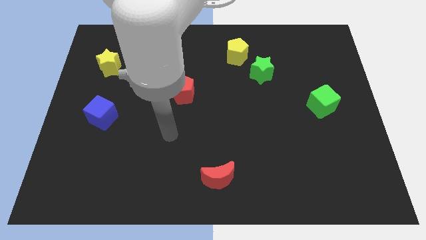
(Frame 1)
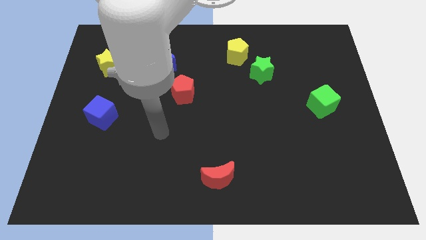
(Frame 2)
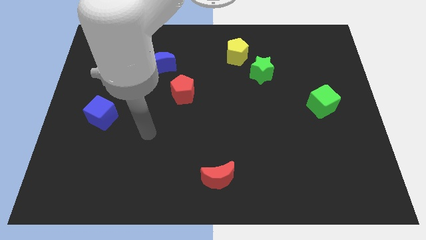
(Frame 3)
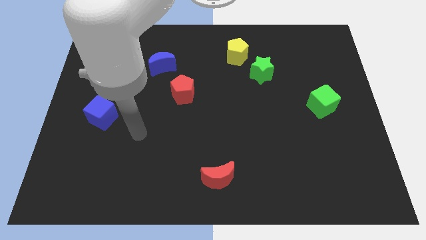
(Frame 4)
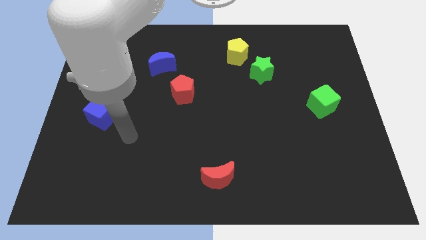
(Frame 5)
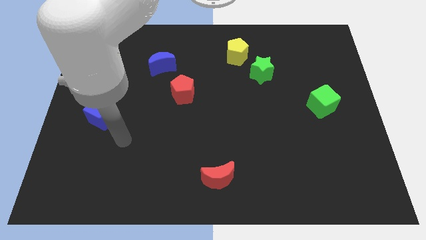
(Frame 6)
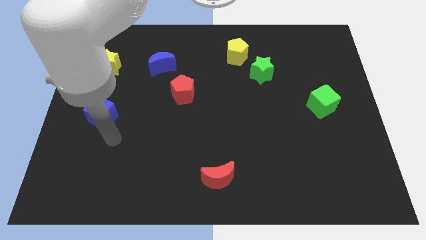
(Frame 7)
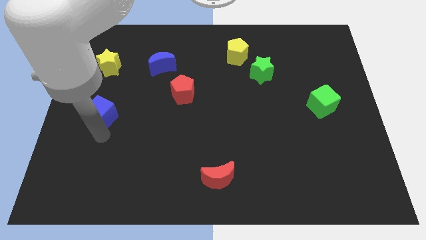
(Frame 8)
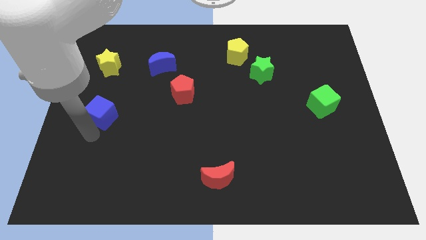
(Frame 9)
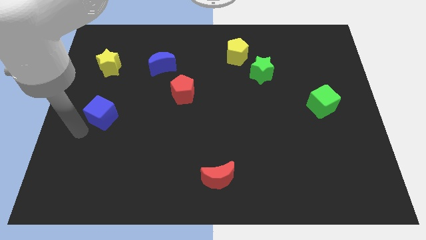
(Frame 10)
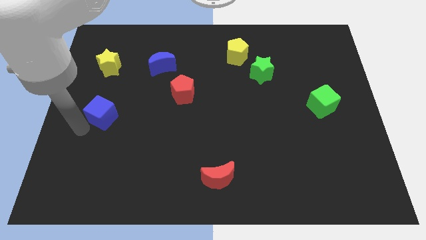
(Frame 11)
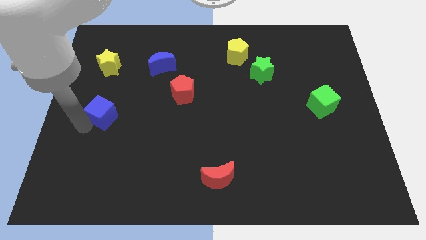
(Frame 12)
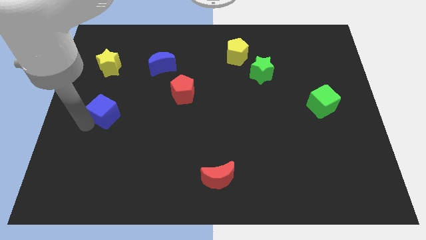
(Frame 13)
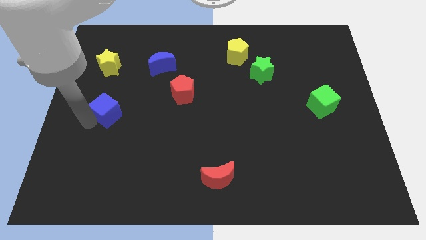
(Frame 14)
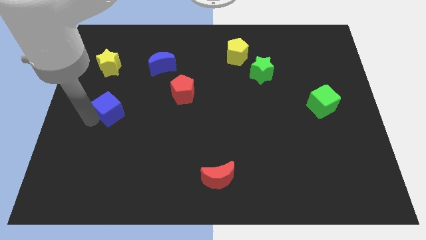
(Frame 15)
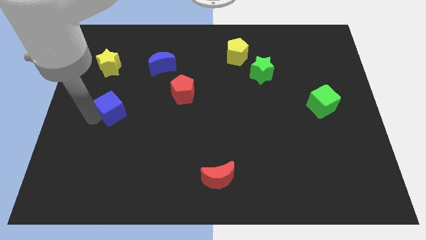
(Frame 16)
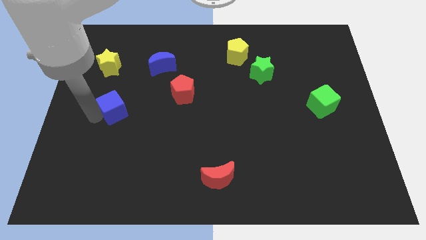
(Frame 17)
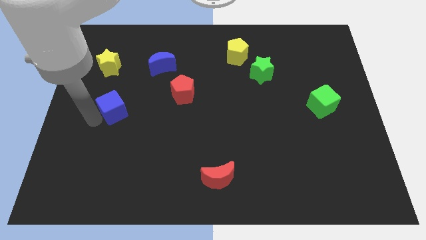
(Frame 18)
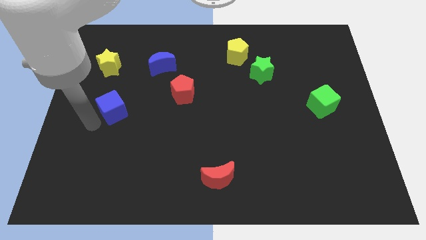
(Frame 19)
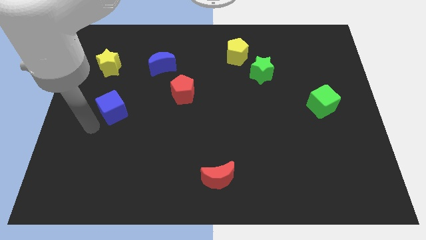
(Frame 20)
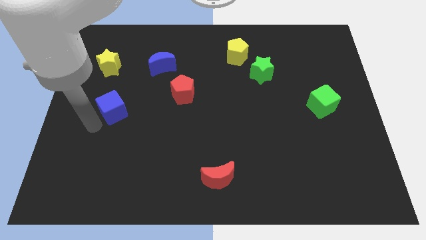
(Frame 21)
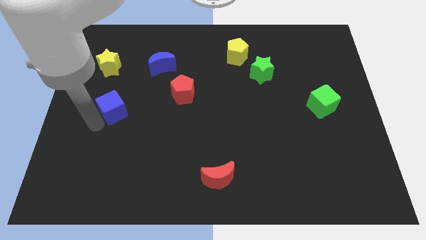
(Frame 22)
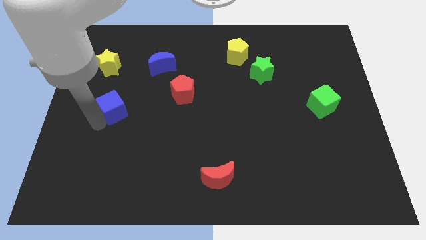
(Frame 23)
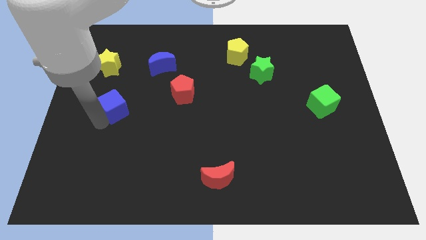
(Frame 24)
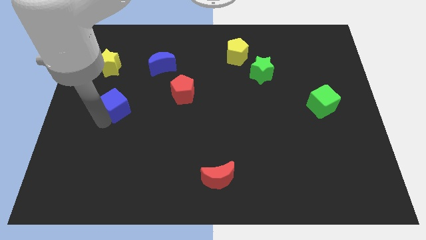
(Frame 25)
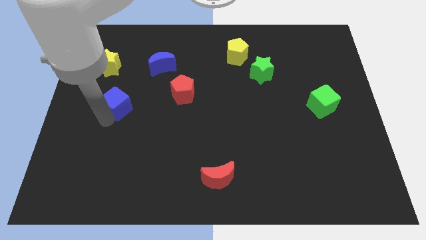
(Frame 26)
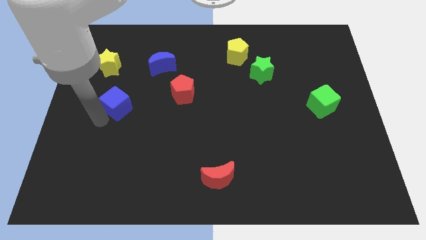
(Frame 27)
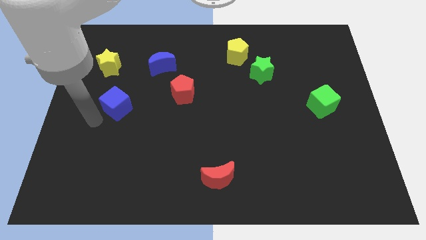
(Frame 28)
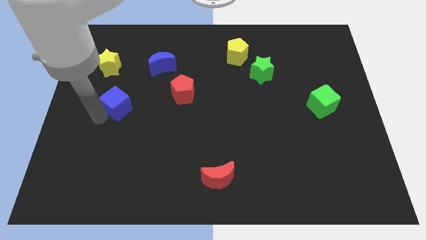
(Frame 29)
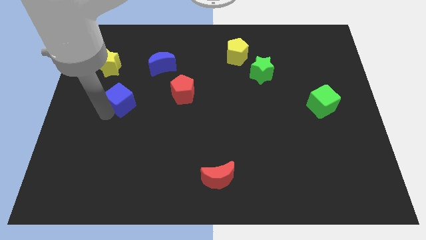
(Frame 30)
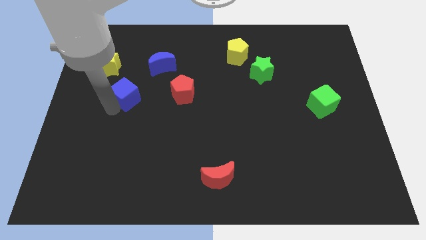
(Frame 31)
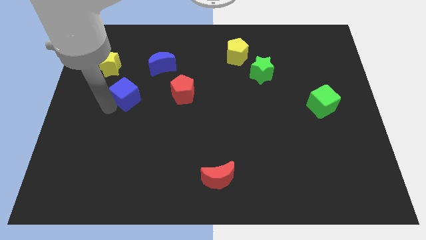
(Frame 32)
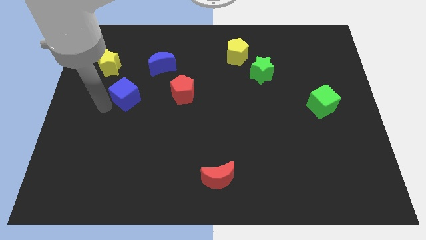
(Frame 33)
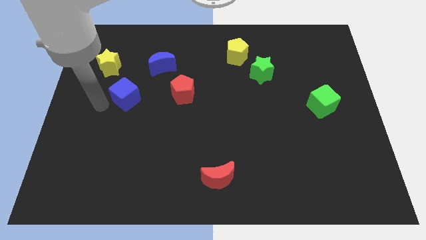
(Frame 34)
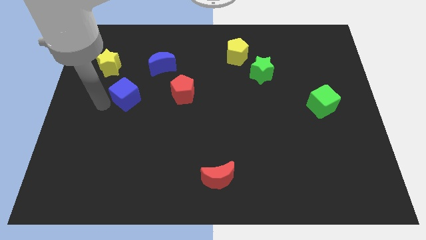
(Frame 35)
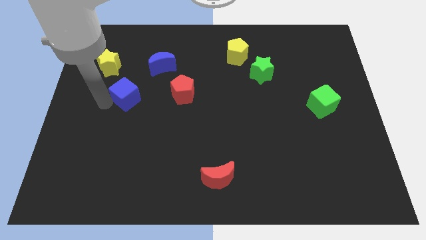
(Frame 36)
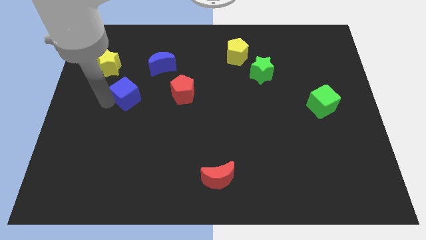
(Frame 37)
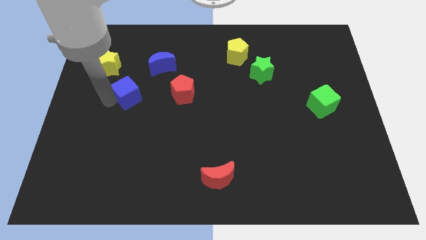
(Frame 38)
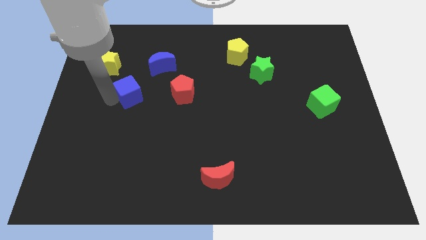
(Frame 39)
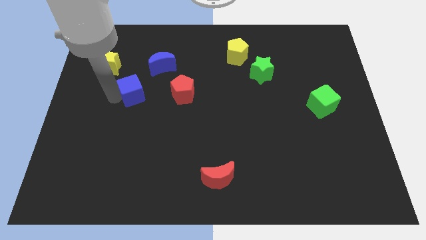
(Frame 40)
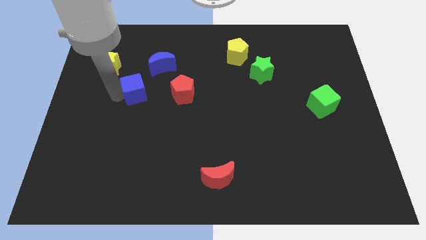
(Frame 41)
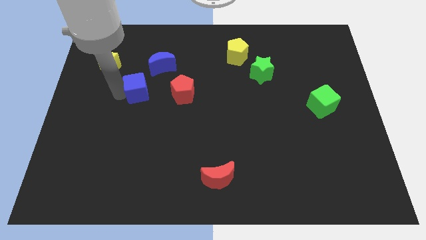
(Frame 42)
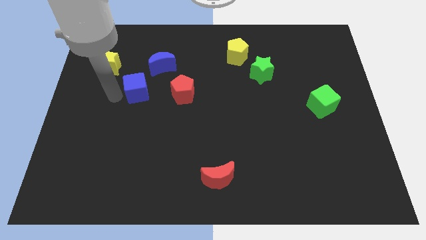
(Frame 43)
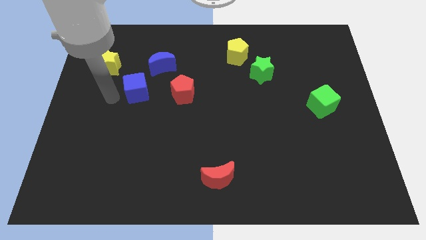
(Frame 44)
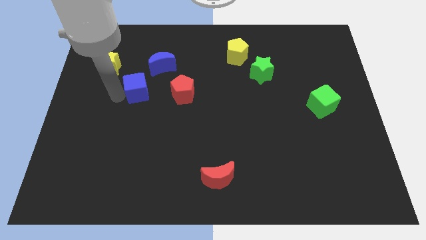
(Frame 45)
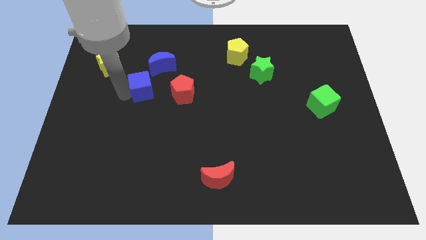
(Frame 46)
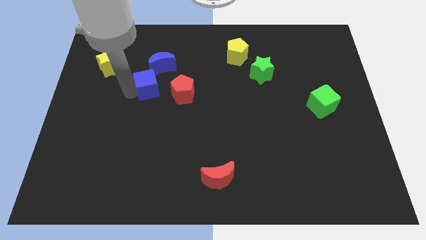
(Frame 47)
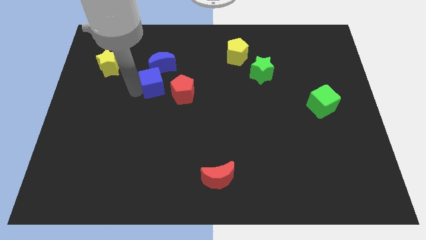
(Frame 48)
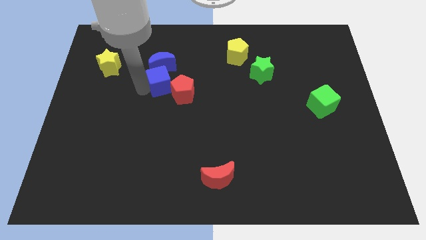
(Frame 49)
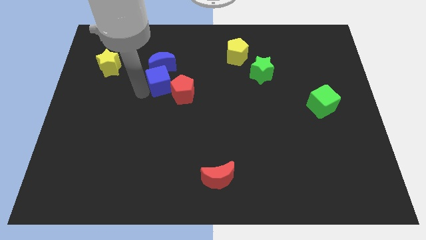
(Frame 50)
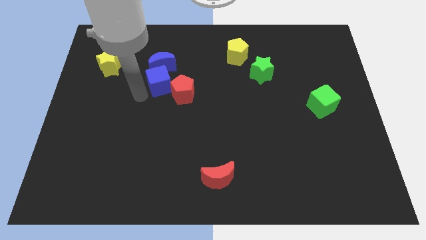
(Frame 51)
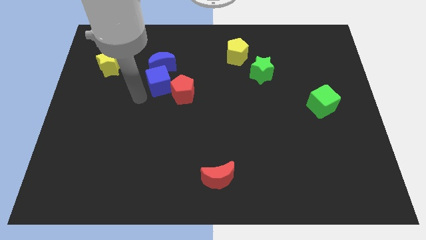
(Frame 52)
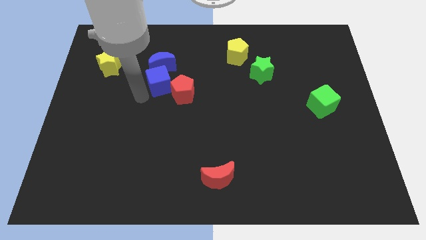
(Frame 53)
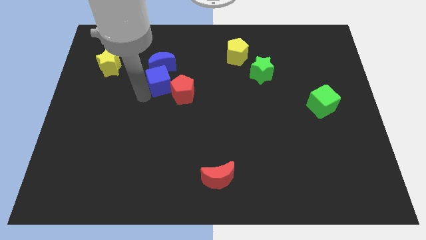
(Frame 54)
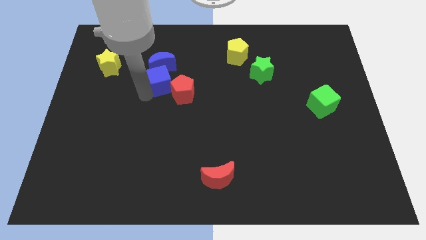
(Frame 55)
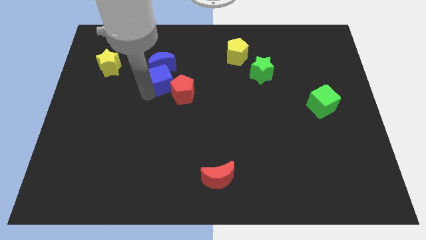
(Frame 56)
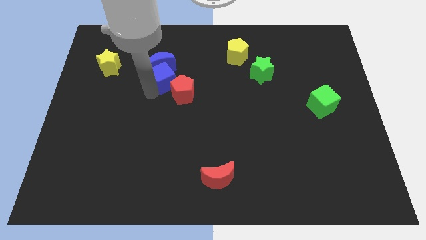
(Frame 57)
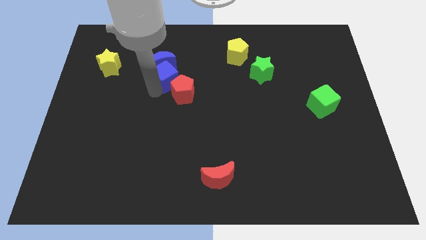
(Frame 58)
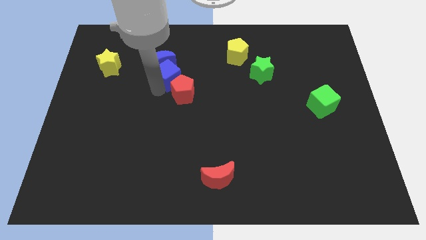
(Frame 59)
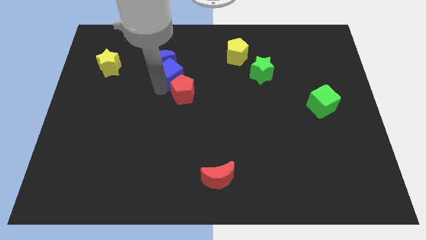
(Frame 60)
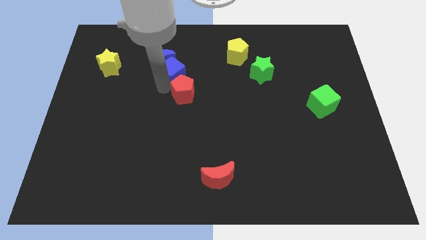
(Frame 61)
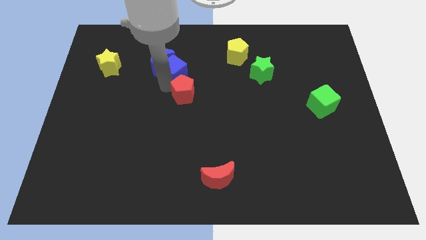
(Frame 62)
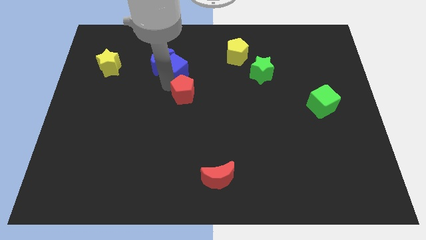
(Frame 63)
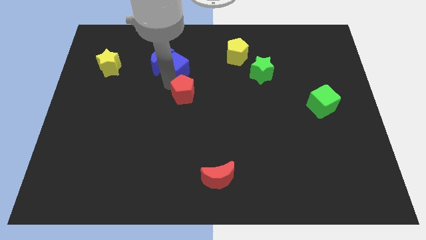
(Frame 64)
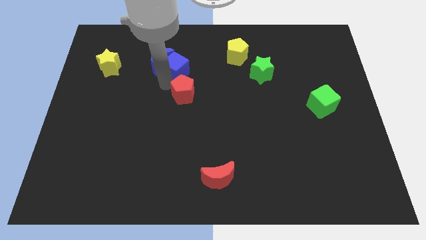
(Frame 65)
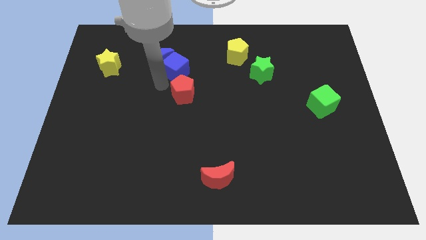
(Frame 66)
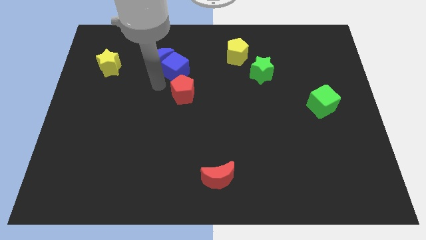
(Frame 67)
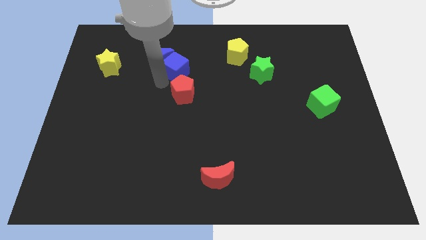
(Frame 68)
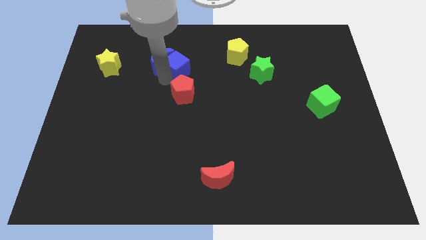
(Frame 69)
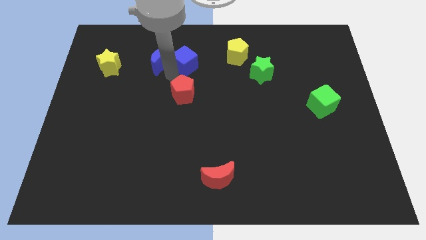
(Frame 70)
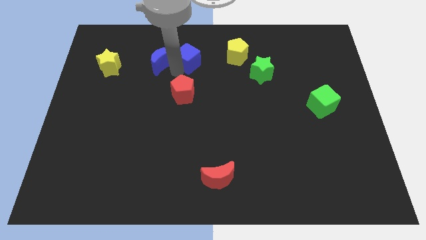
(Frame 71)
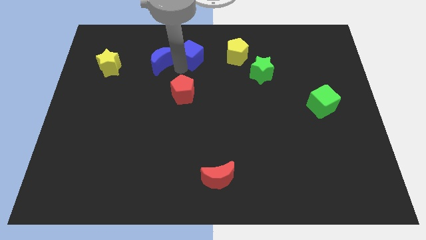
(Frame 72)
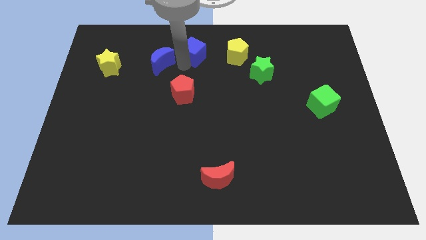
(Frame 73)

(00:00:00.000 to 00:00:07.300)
put the blue cube to the top
